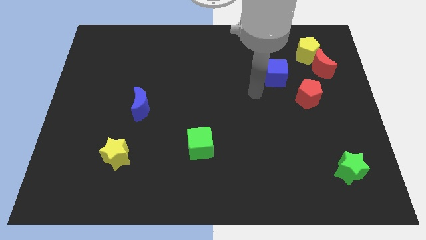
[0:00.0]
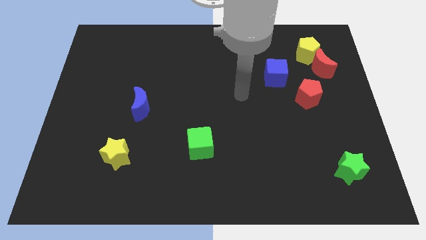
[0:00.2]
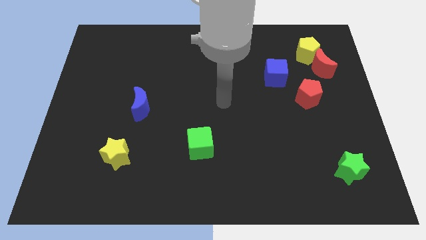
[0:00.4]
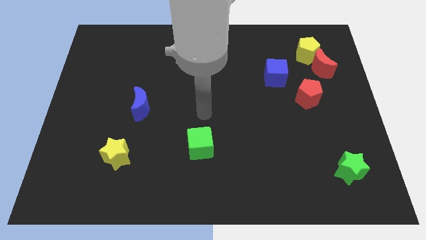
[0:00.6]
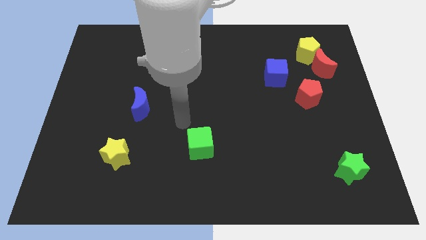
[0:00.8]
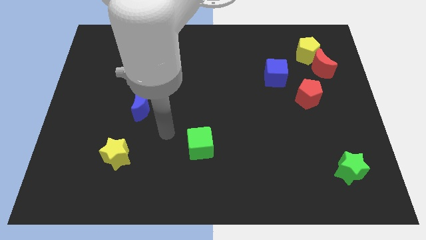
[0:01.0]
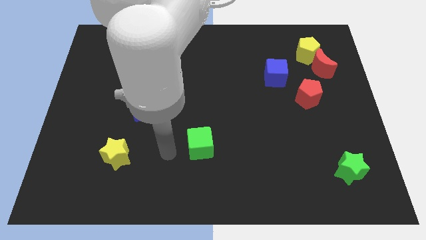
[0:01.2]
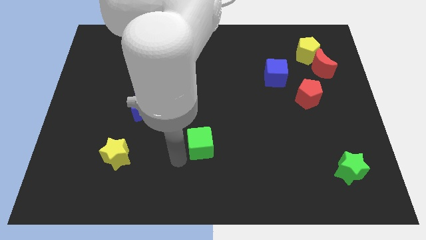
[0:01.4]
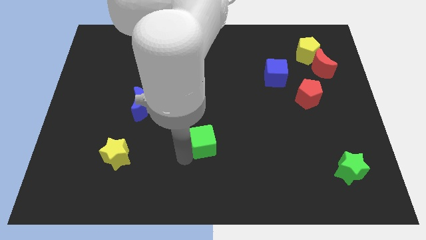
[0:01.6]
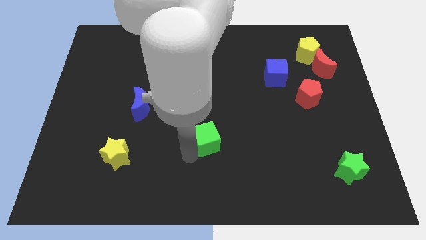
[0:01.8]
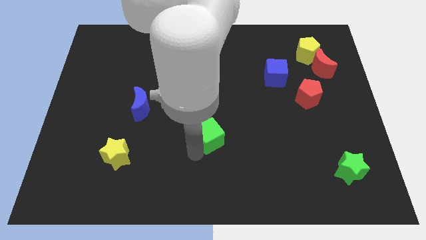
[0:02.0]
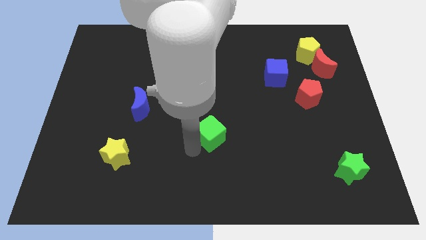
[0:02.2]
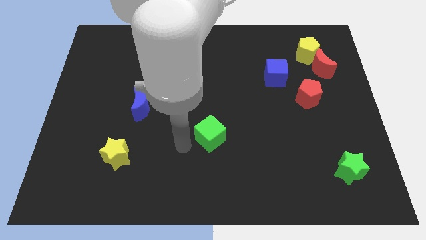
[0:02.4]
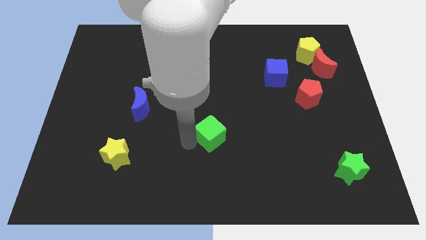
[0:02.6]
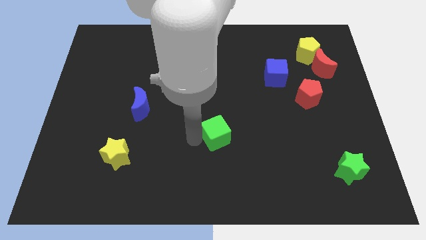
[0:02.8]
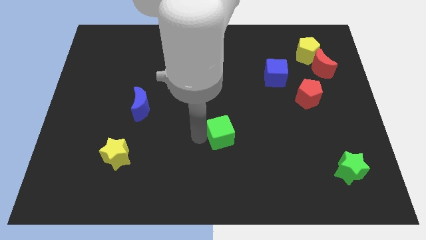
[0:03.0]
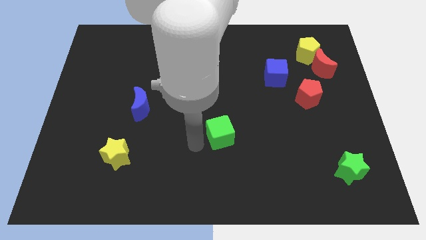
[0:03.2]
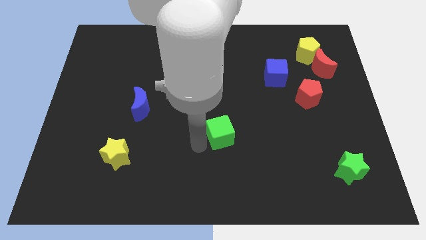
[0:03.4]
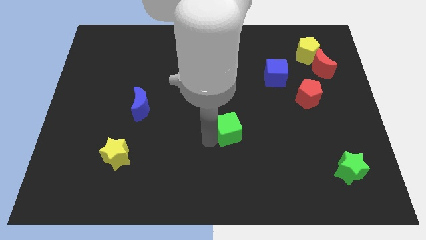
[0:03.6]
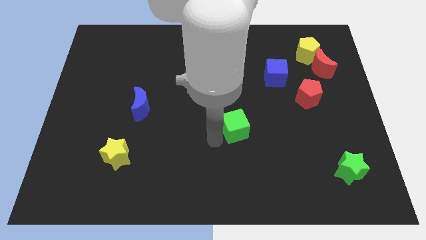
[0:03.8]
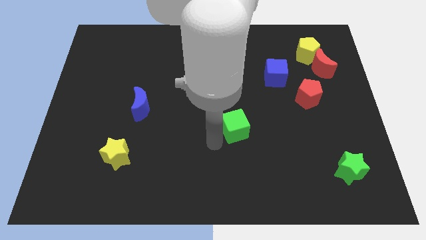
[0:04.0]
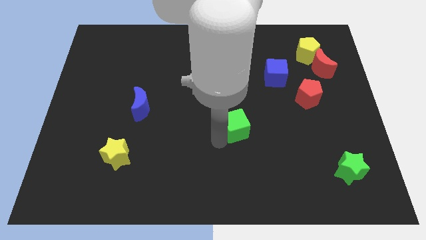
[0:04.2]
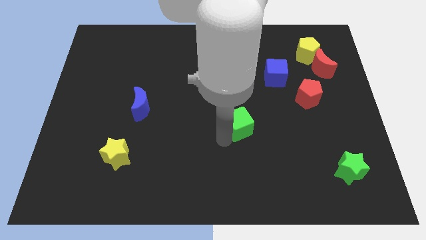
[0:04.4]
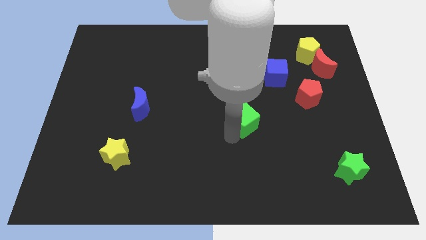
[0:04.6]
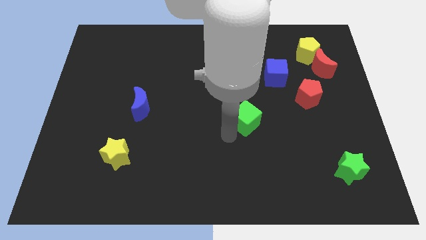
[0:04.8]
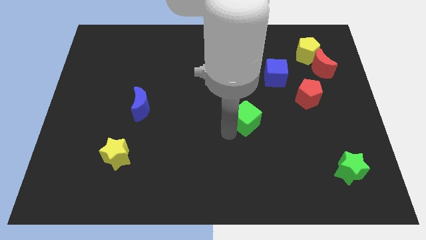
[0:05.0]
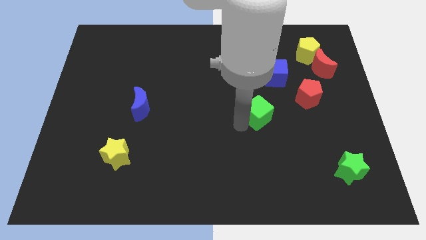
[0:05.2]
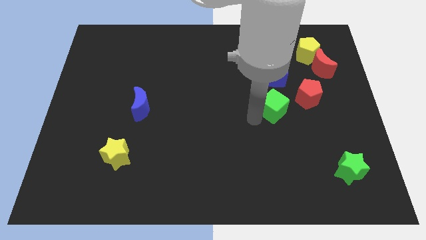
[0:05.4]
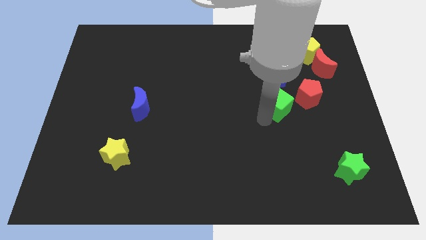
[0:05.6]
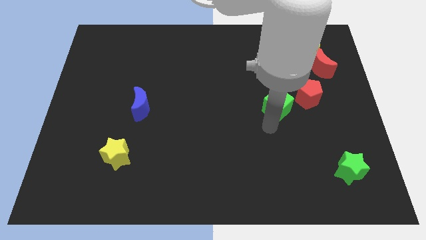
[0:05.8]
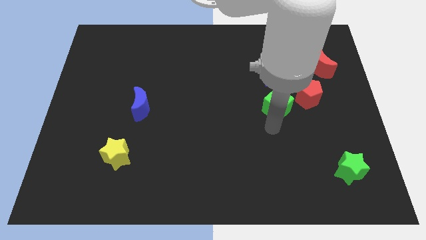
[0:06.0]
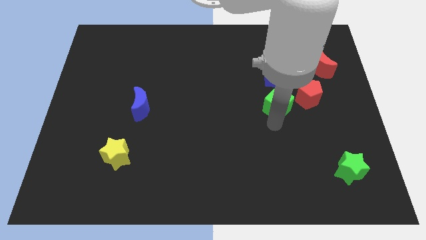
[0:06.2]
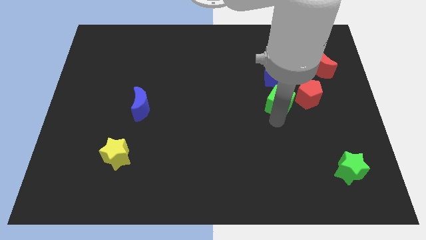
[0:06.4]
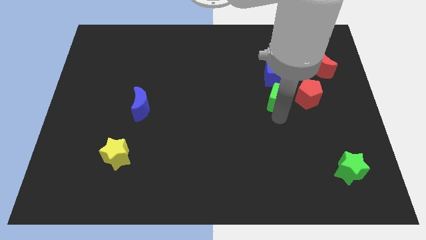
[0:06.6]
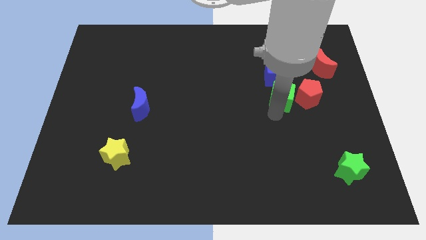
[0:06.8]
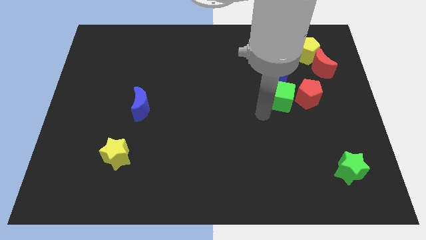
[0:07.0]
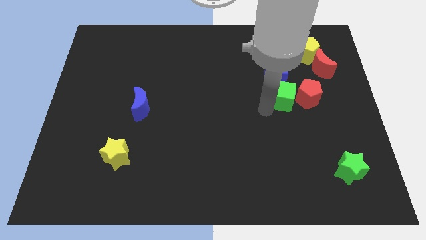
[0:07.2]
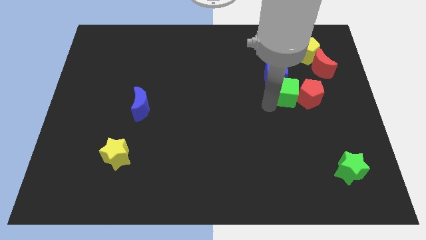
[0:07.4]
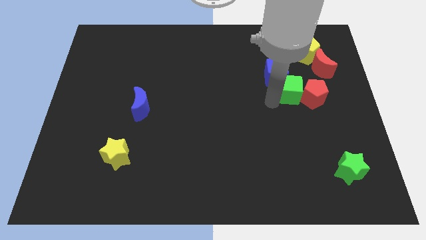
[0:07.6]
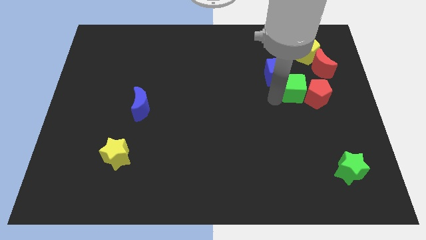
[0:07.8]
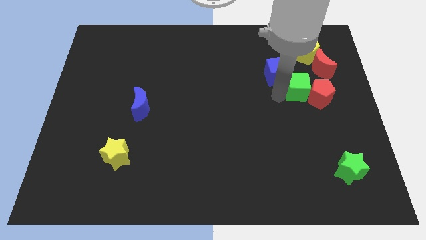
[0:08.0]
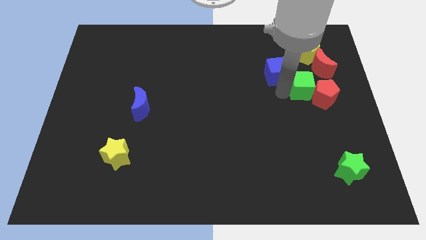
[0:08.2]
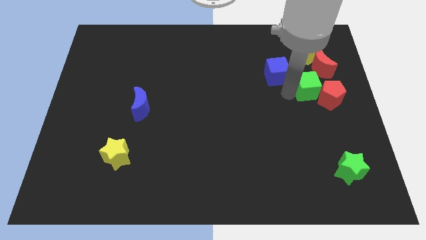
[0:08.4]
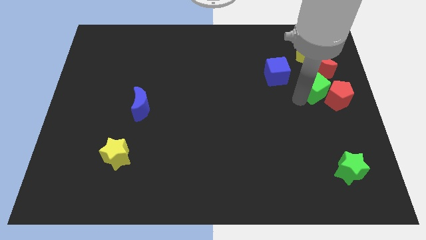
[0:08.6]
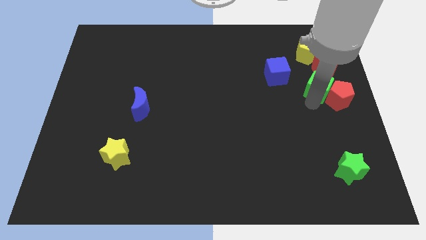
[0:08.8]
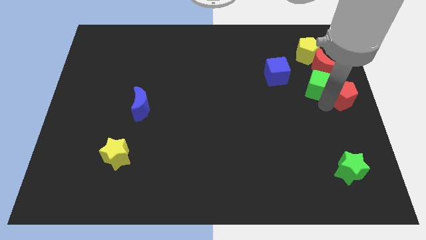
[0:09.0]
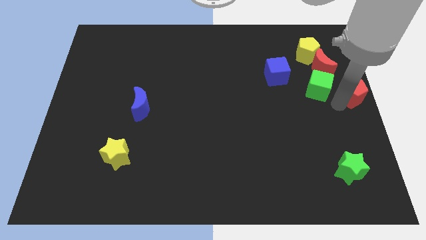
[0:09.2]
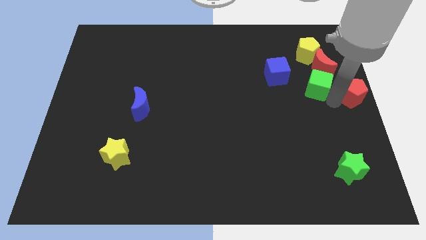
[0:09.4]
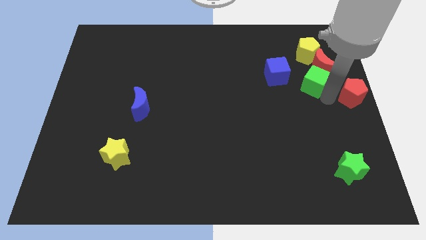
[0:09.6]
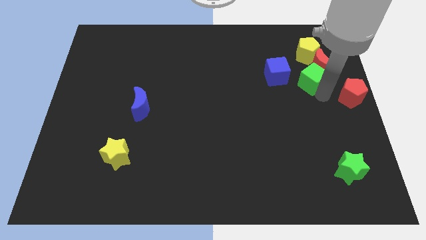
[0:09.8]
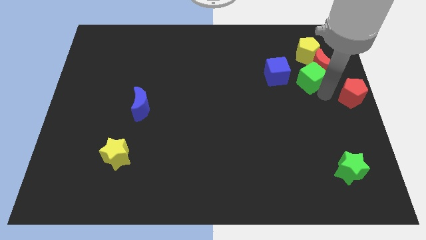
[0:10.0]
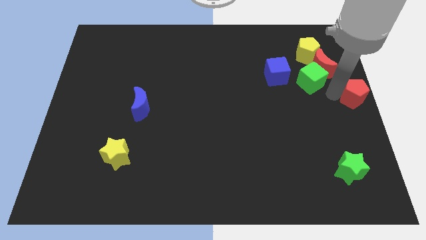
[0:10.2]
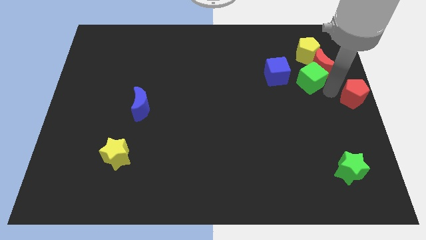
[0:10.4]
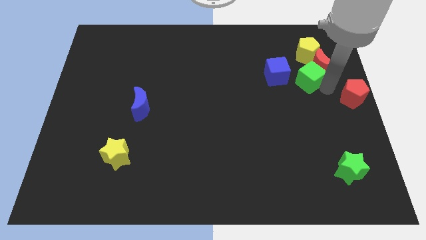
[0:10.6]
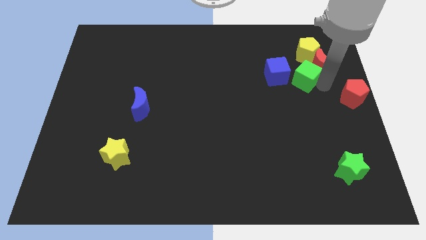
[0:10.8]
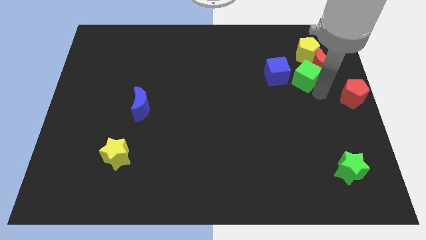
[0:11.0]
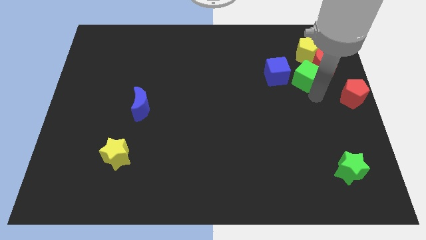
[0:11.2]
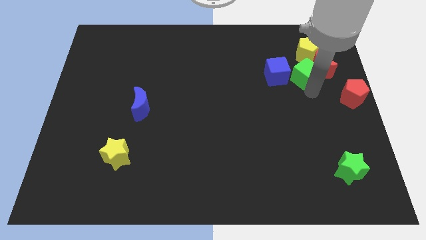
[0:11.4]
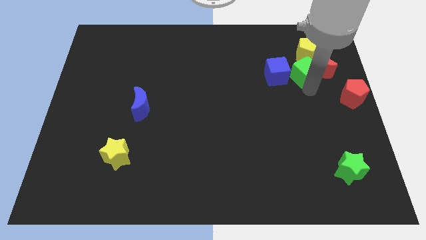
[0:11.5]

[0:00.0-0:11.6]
push the green cube diagonally up and to the right of the blue cube

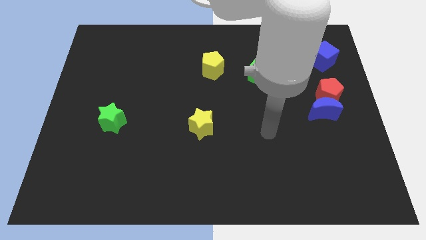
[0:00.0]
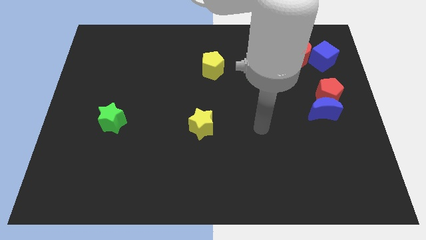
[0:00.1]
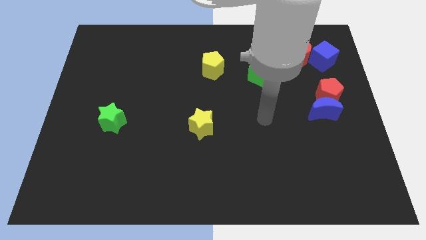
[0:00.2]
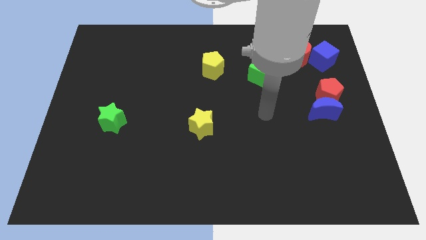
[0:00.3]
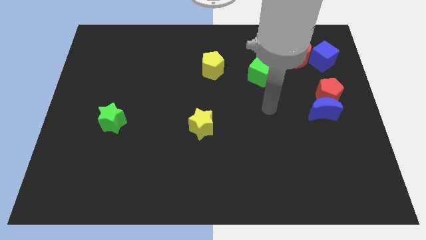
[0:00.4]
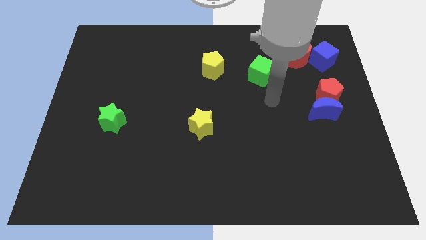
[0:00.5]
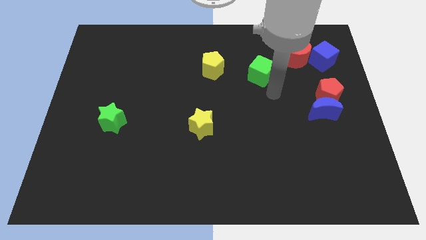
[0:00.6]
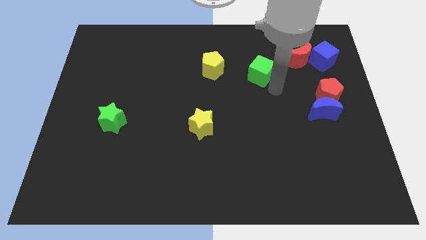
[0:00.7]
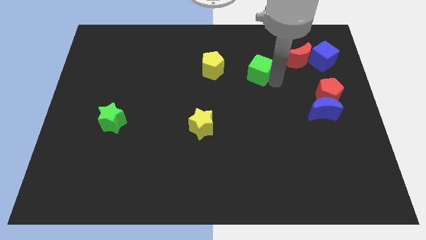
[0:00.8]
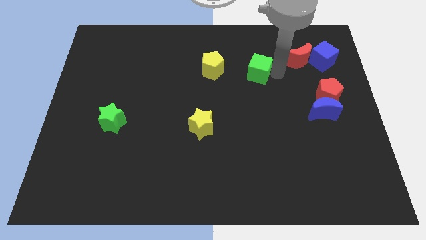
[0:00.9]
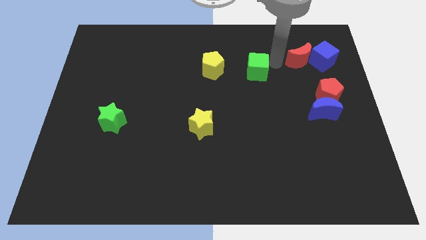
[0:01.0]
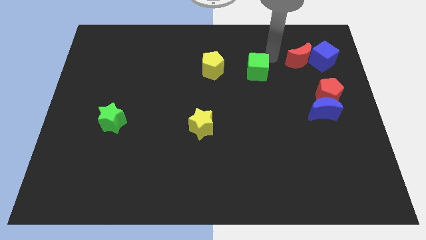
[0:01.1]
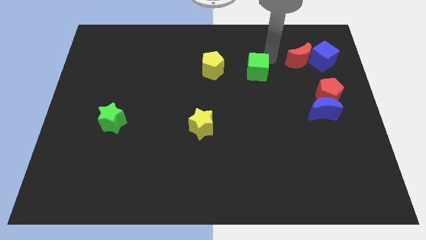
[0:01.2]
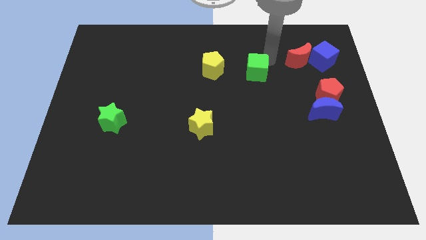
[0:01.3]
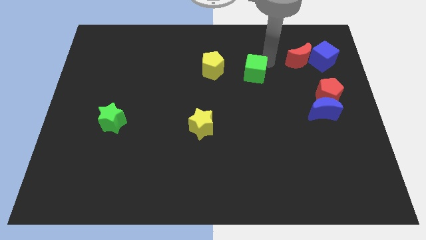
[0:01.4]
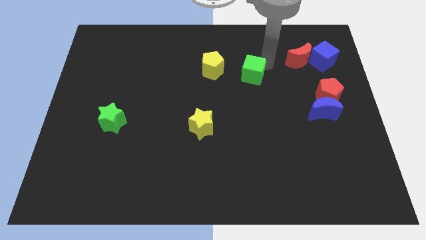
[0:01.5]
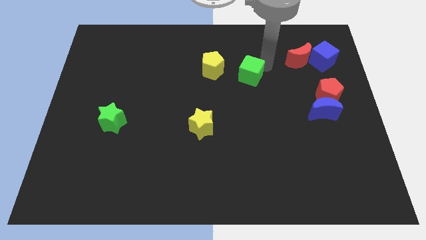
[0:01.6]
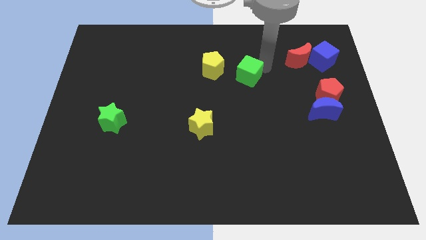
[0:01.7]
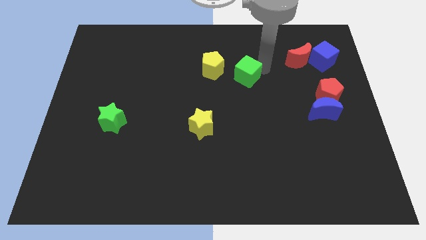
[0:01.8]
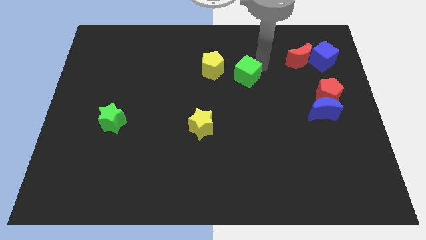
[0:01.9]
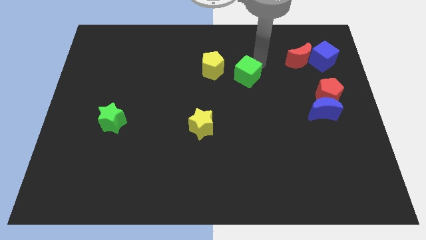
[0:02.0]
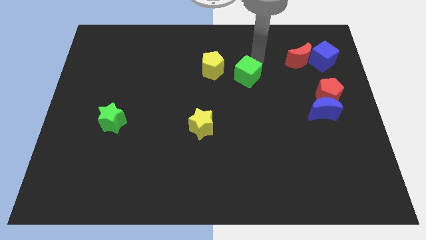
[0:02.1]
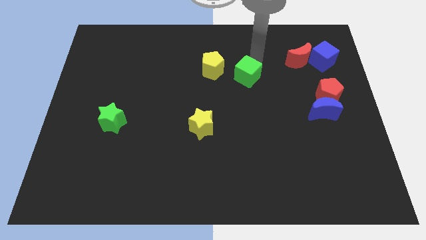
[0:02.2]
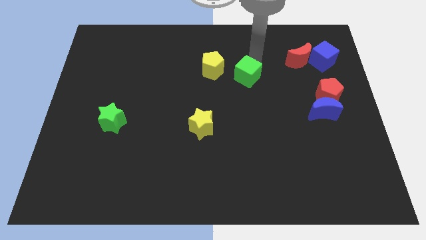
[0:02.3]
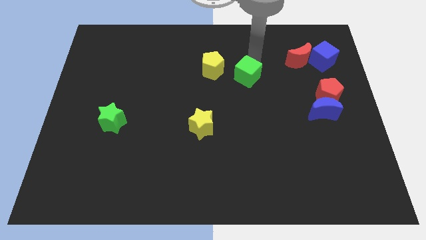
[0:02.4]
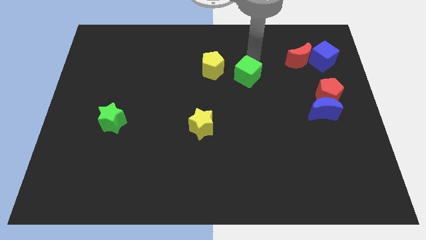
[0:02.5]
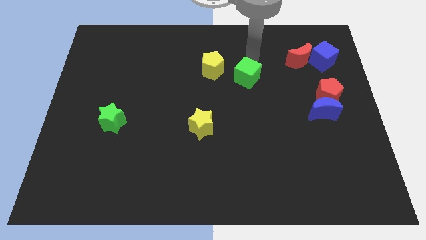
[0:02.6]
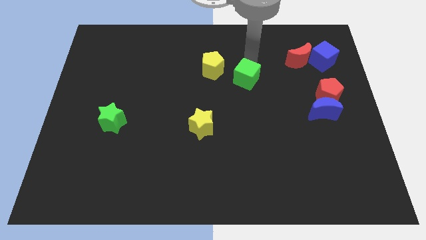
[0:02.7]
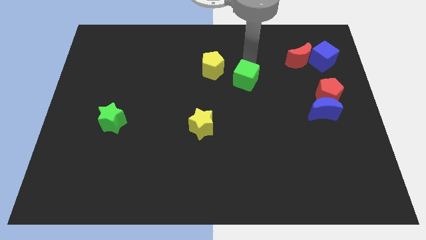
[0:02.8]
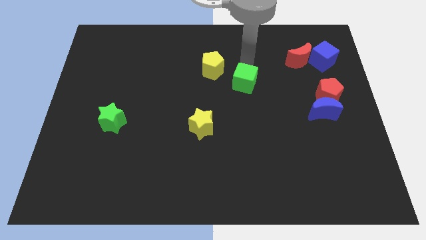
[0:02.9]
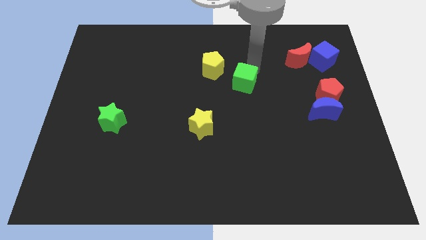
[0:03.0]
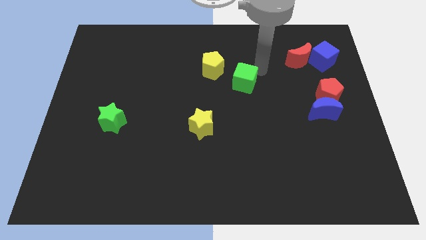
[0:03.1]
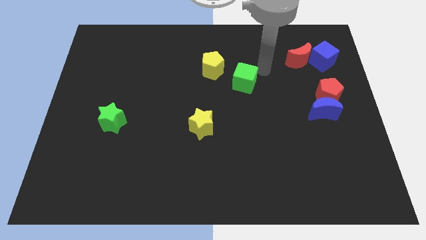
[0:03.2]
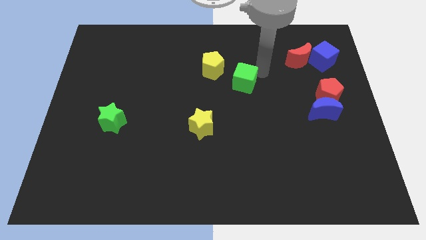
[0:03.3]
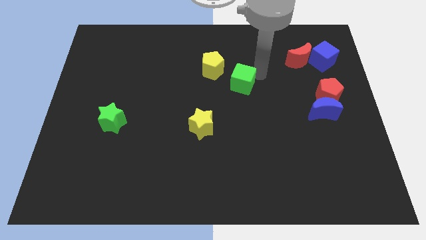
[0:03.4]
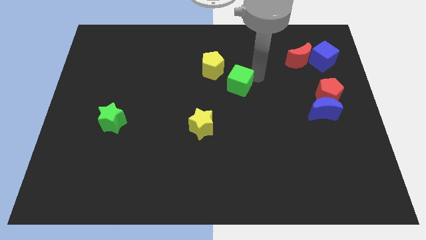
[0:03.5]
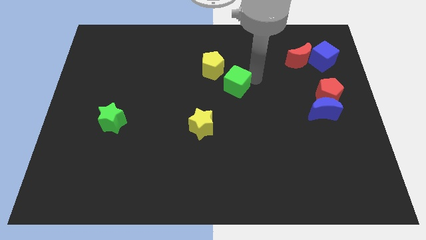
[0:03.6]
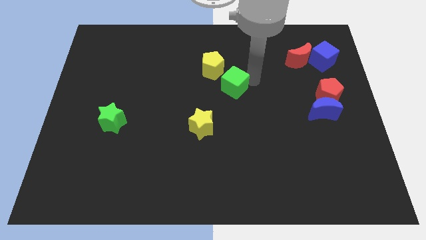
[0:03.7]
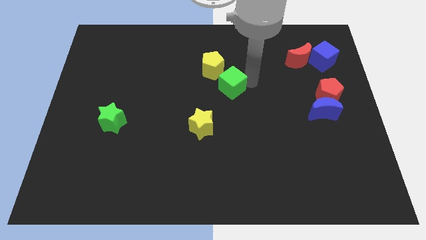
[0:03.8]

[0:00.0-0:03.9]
move the green cube to the bottom side of the yellow pentagon
